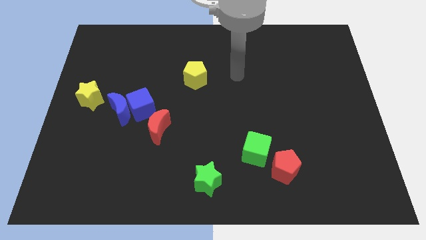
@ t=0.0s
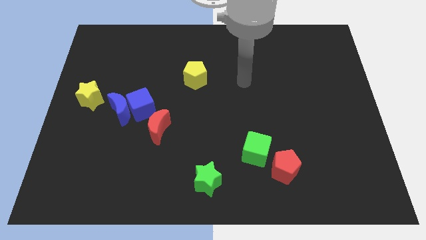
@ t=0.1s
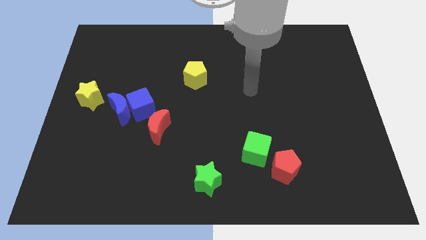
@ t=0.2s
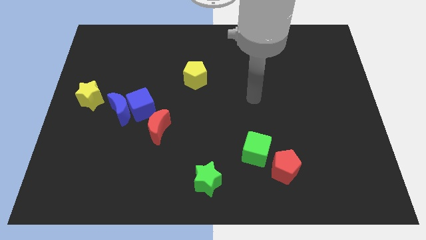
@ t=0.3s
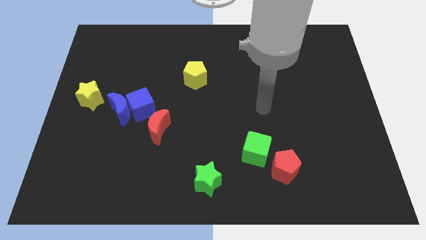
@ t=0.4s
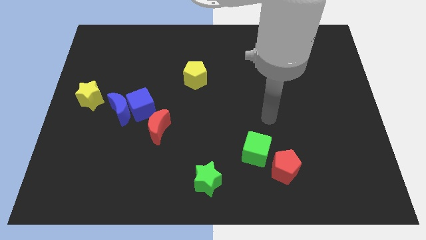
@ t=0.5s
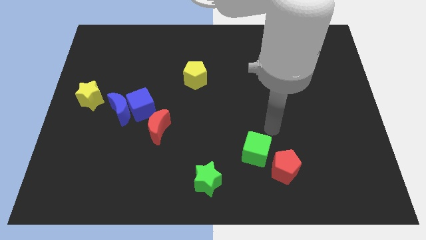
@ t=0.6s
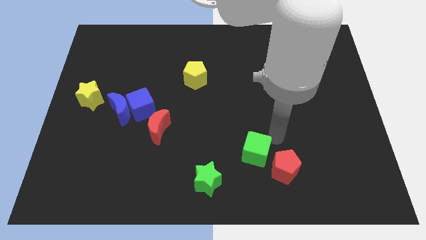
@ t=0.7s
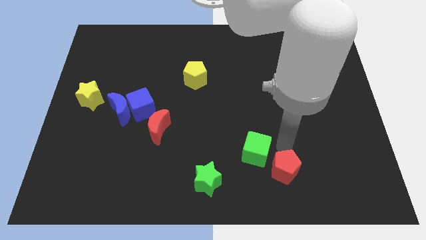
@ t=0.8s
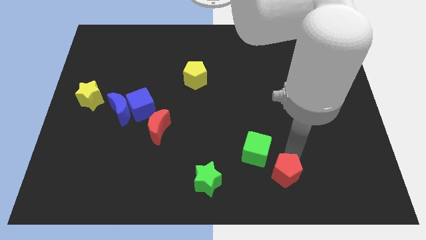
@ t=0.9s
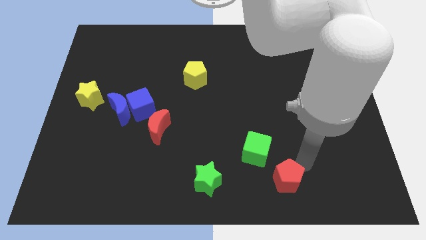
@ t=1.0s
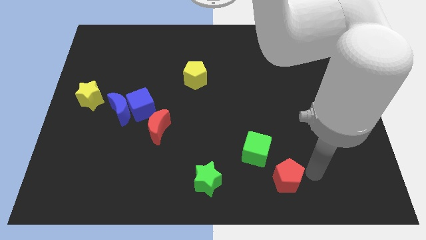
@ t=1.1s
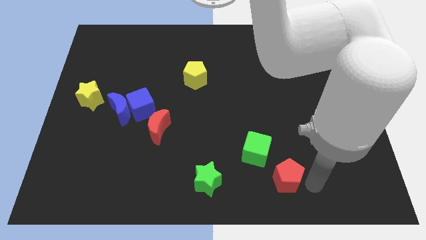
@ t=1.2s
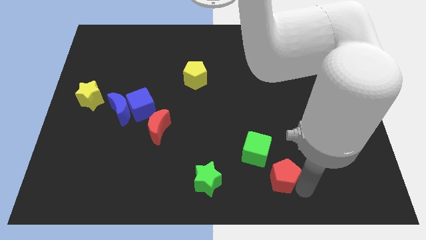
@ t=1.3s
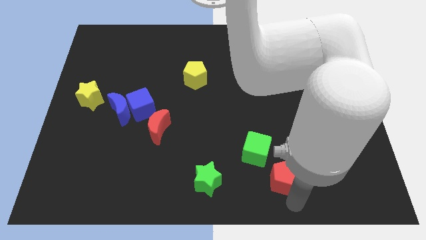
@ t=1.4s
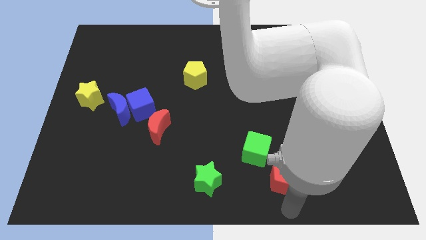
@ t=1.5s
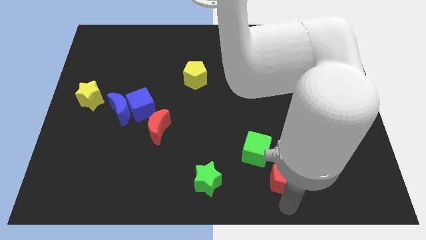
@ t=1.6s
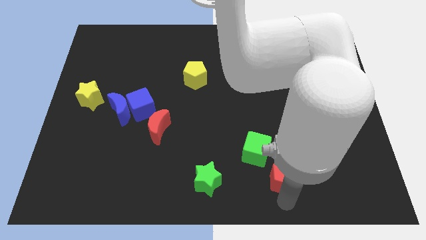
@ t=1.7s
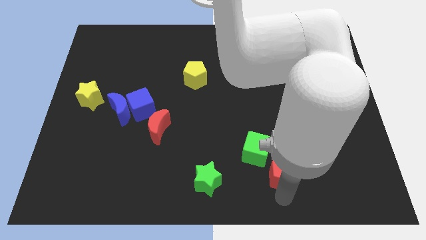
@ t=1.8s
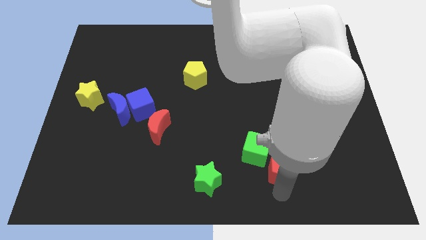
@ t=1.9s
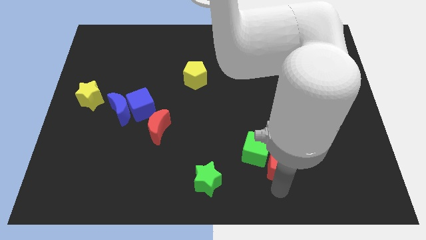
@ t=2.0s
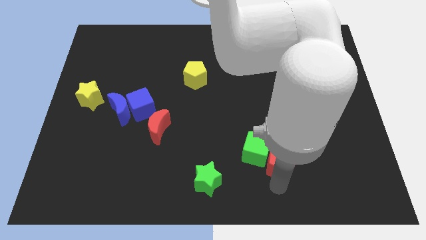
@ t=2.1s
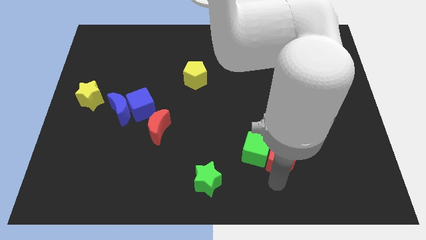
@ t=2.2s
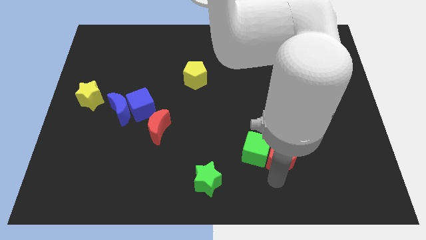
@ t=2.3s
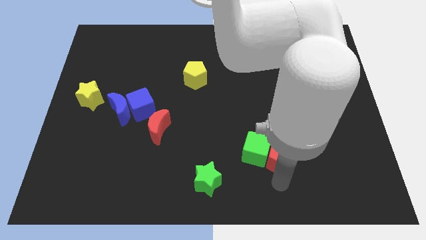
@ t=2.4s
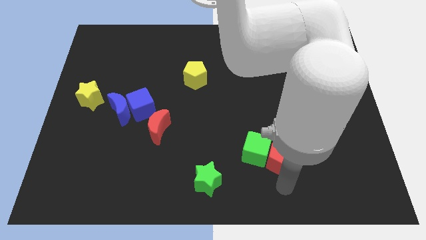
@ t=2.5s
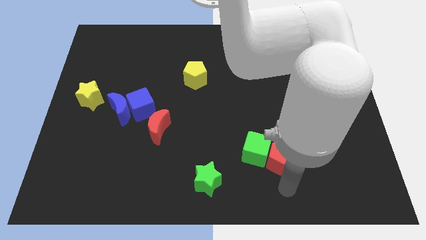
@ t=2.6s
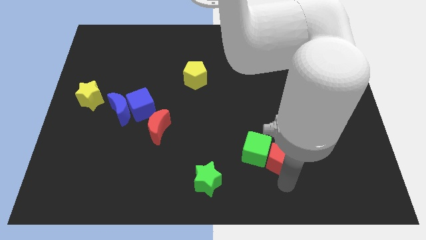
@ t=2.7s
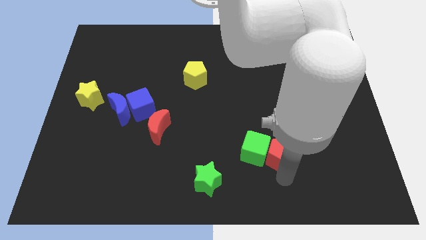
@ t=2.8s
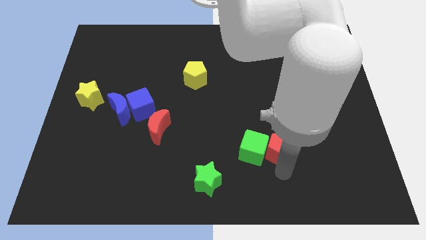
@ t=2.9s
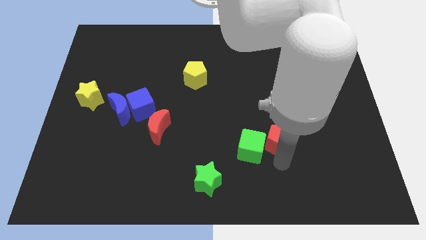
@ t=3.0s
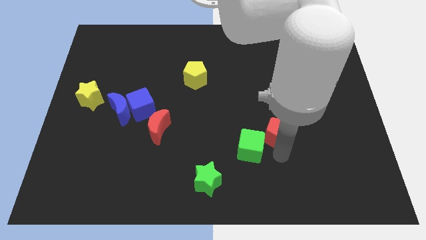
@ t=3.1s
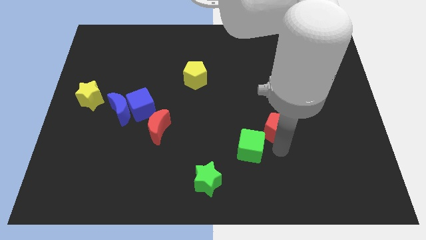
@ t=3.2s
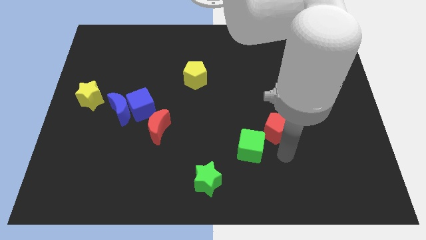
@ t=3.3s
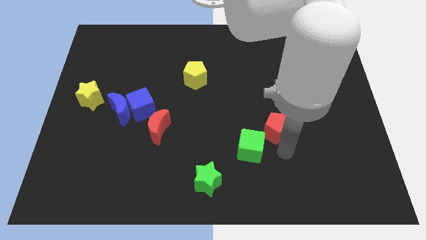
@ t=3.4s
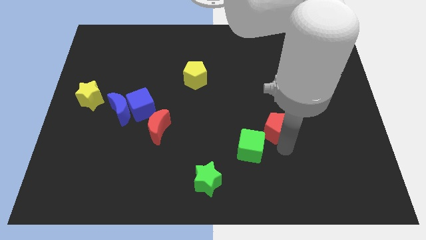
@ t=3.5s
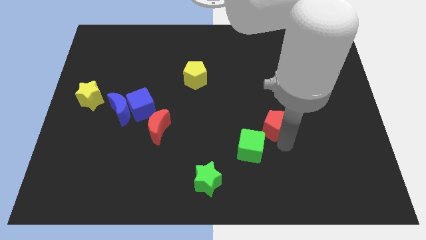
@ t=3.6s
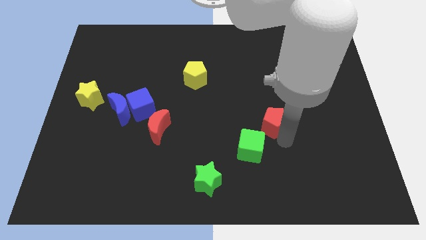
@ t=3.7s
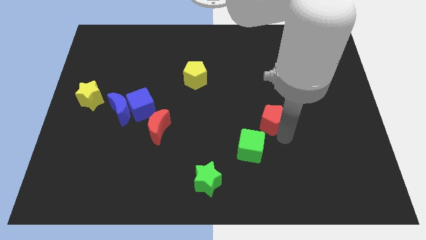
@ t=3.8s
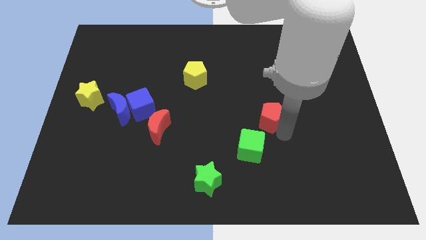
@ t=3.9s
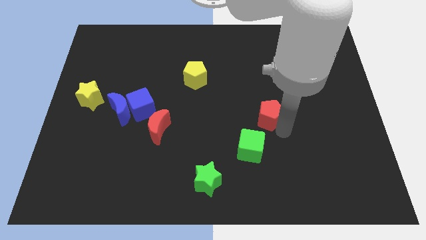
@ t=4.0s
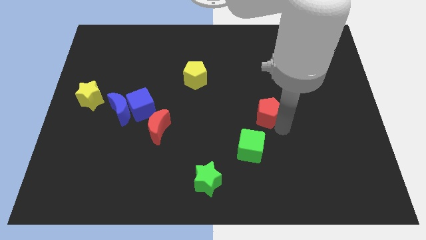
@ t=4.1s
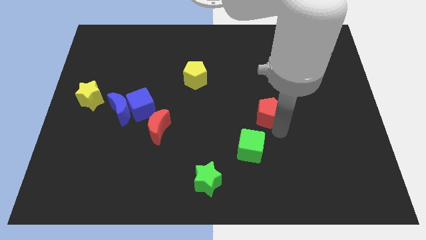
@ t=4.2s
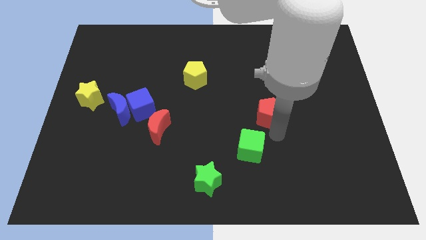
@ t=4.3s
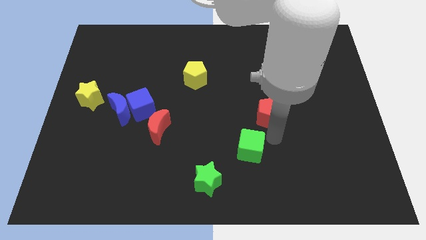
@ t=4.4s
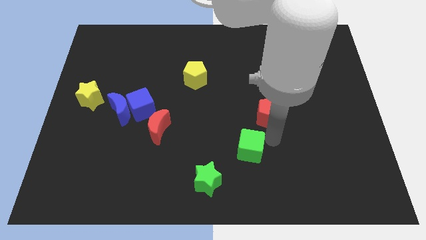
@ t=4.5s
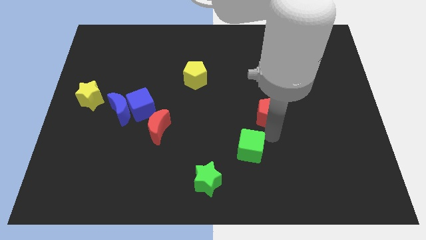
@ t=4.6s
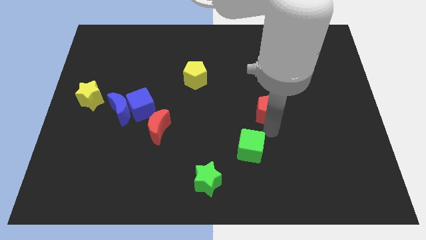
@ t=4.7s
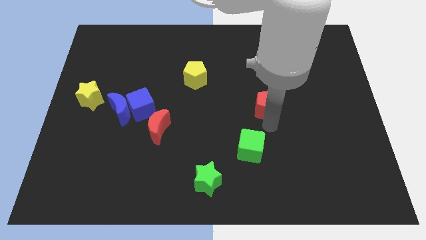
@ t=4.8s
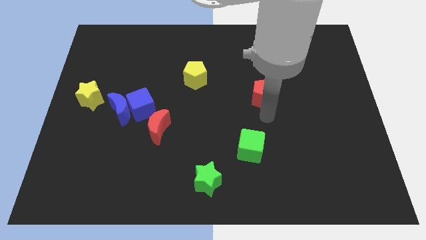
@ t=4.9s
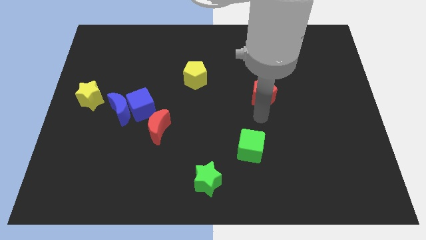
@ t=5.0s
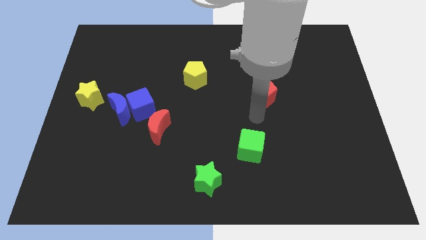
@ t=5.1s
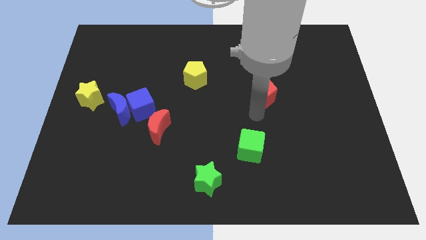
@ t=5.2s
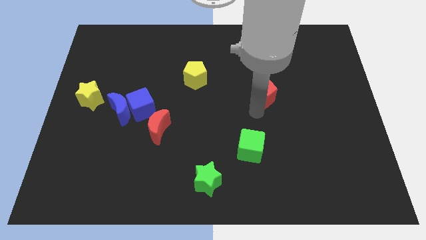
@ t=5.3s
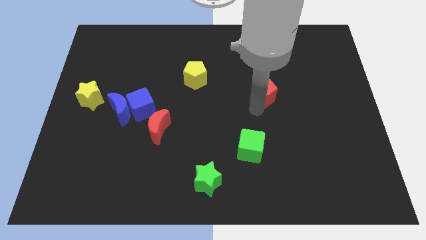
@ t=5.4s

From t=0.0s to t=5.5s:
push the red pentagon up

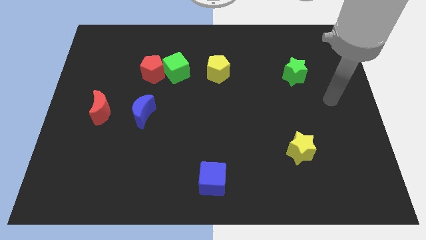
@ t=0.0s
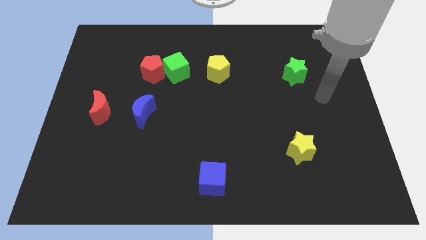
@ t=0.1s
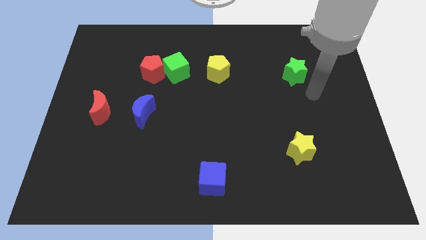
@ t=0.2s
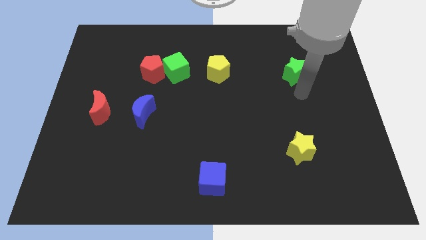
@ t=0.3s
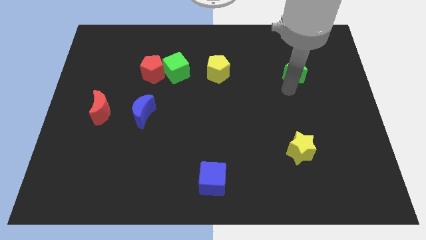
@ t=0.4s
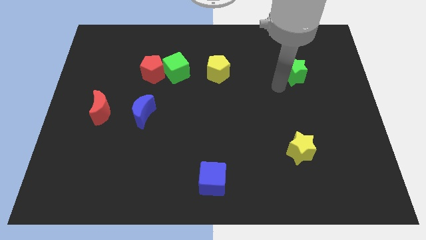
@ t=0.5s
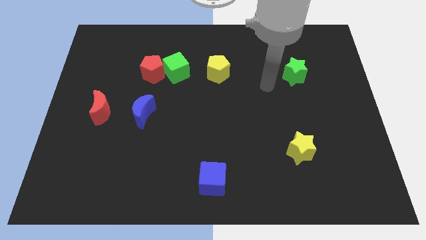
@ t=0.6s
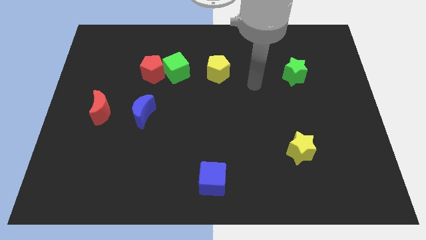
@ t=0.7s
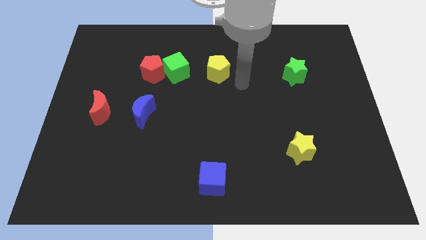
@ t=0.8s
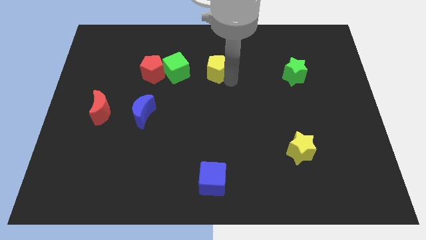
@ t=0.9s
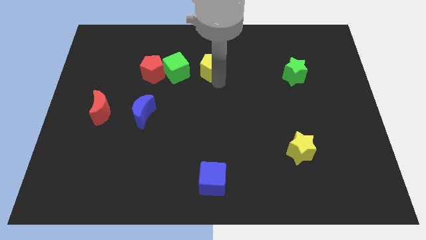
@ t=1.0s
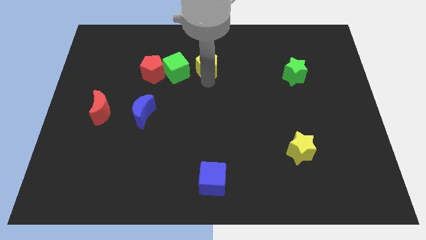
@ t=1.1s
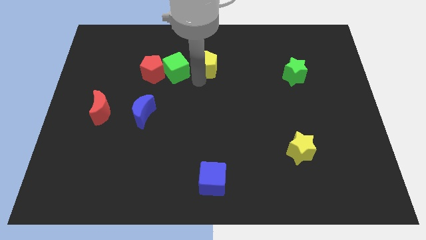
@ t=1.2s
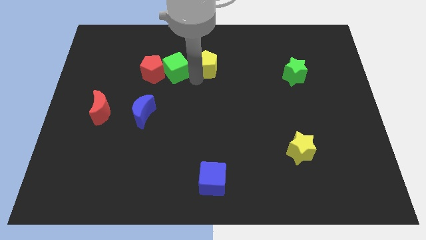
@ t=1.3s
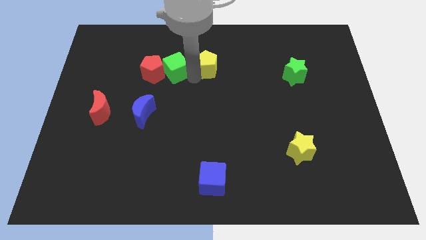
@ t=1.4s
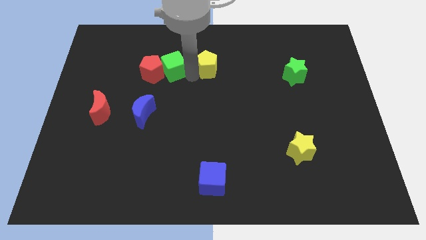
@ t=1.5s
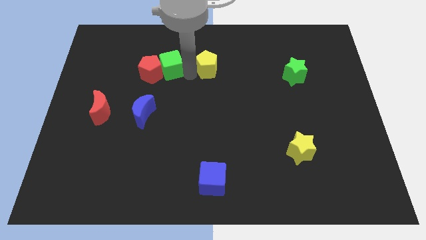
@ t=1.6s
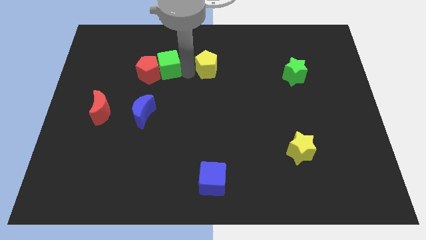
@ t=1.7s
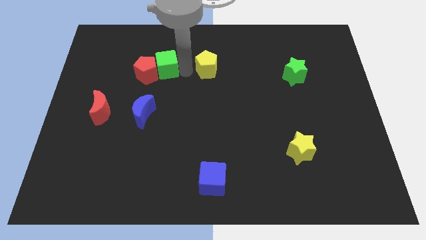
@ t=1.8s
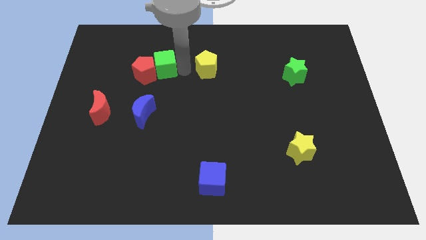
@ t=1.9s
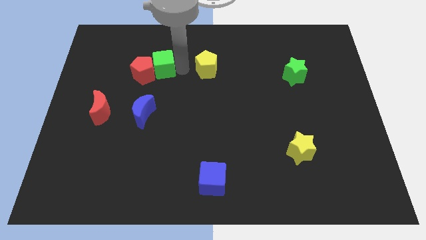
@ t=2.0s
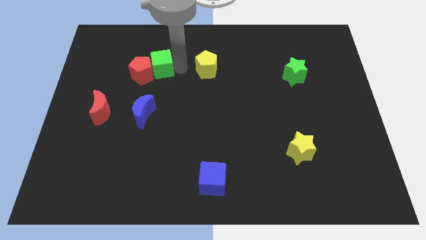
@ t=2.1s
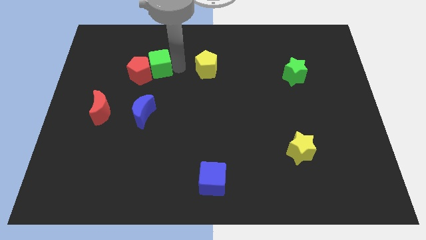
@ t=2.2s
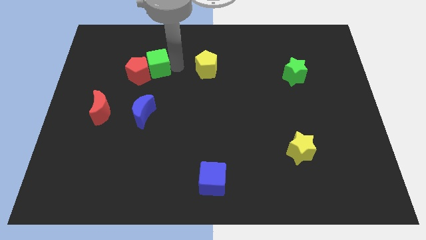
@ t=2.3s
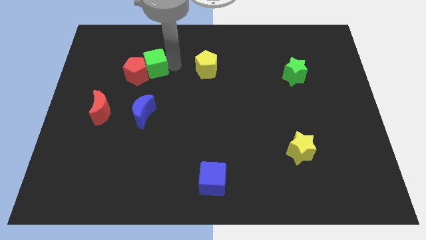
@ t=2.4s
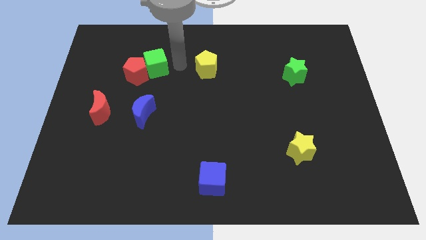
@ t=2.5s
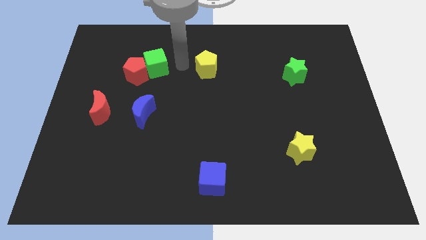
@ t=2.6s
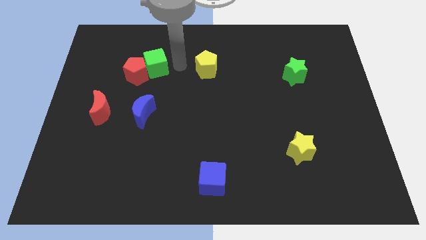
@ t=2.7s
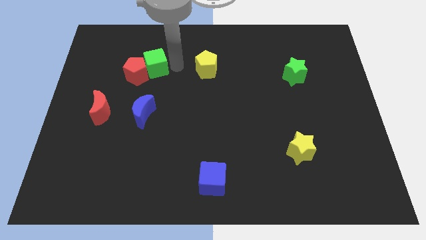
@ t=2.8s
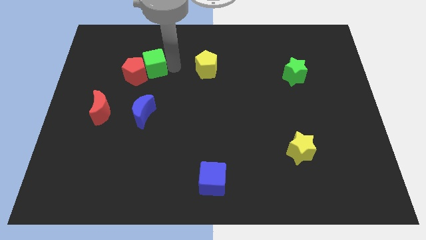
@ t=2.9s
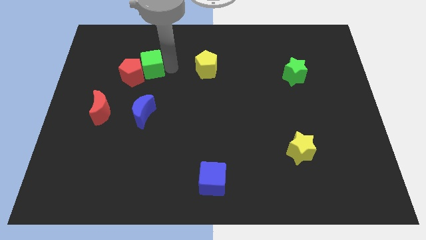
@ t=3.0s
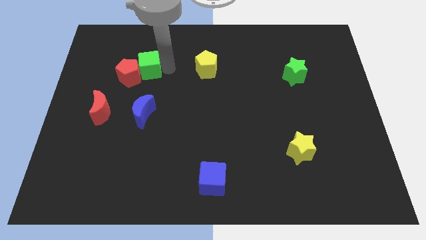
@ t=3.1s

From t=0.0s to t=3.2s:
slightly move the green cube to the left
